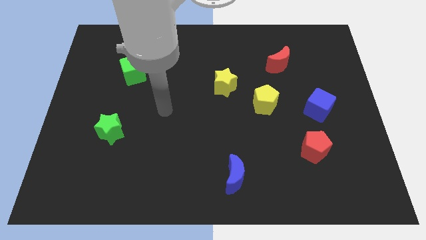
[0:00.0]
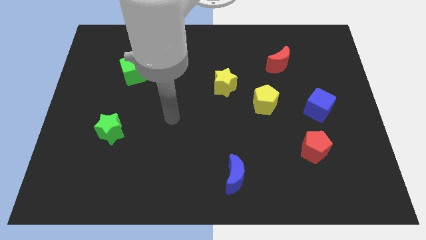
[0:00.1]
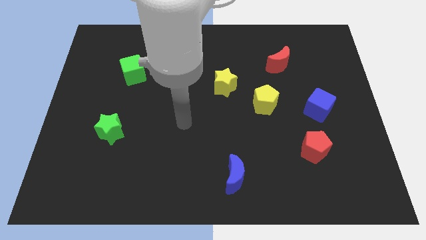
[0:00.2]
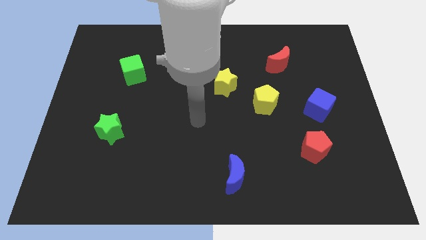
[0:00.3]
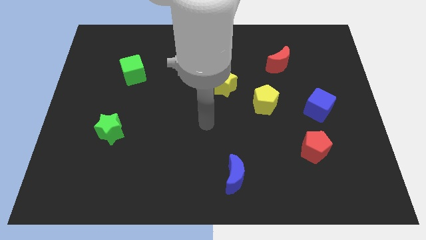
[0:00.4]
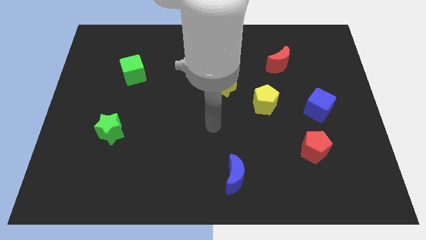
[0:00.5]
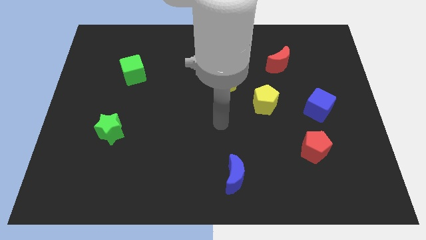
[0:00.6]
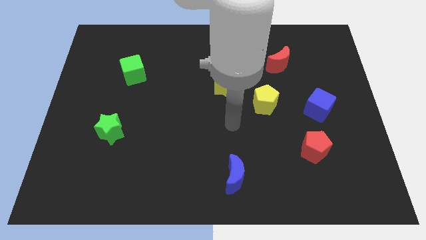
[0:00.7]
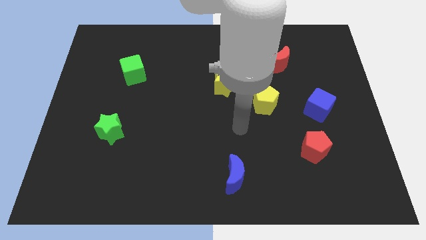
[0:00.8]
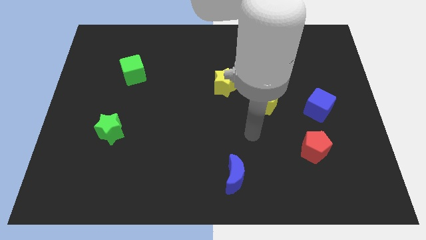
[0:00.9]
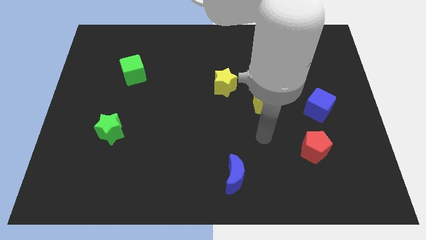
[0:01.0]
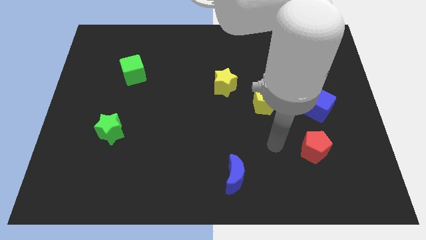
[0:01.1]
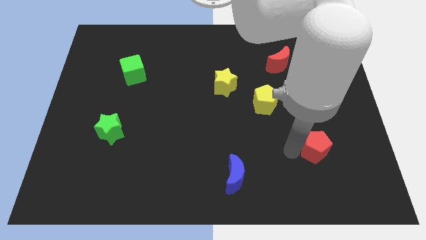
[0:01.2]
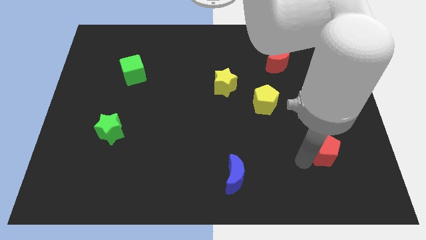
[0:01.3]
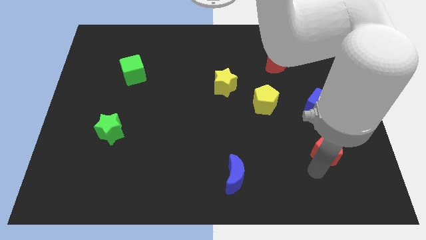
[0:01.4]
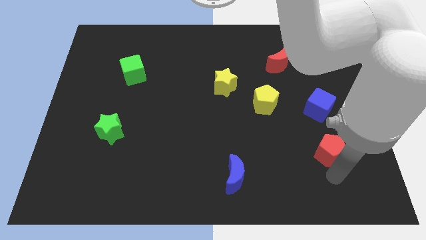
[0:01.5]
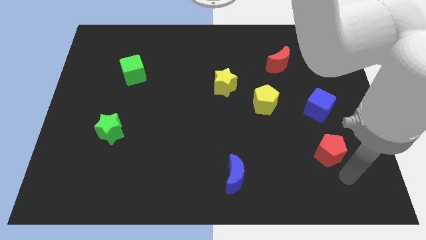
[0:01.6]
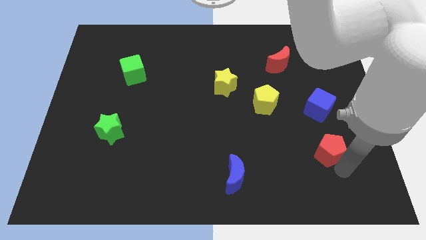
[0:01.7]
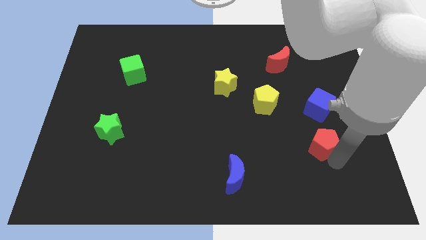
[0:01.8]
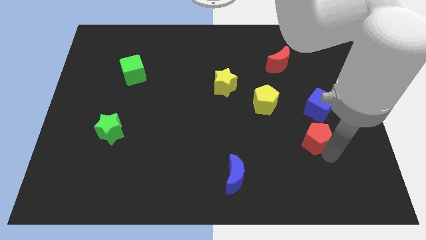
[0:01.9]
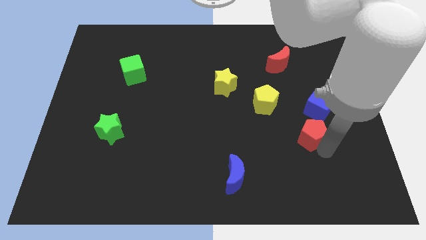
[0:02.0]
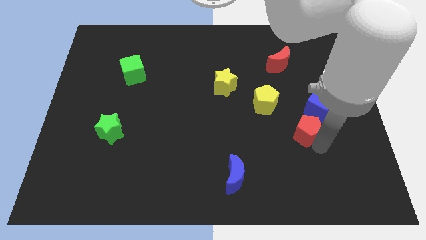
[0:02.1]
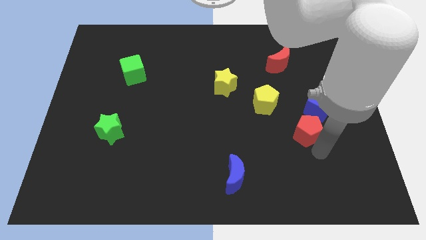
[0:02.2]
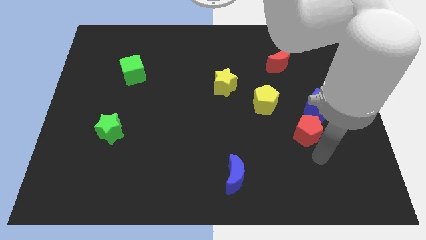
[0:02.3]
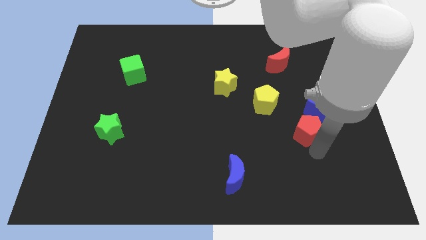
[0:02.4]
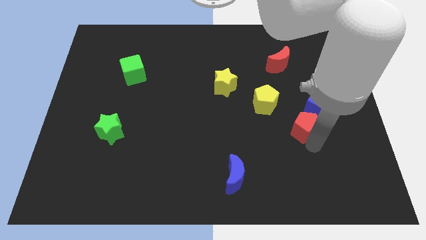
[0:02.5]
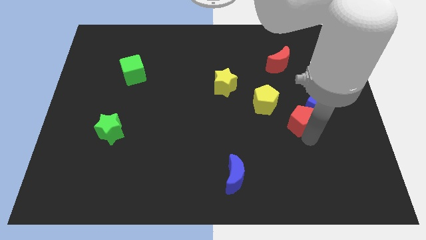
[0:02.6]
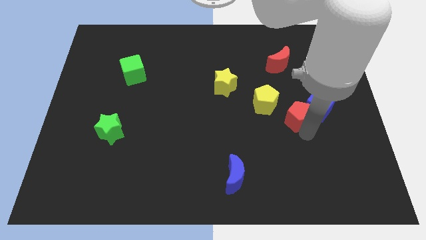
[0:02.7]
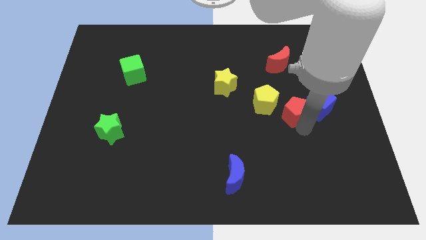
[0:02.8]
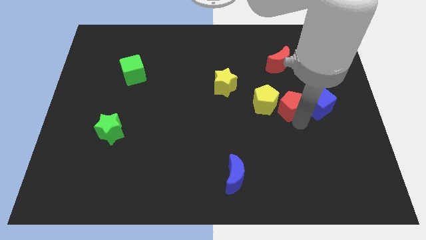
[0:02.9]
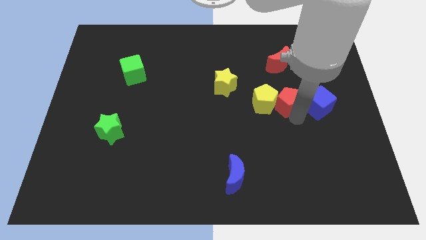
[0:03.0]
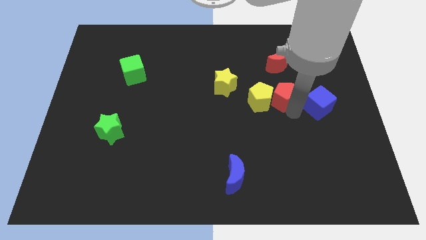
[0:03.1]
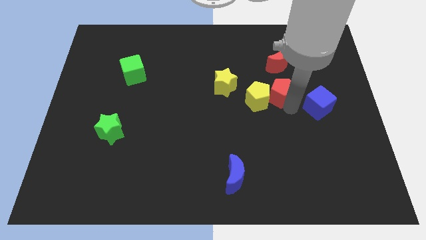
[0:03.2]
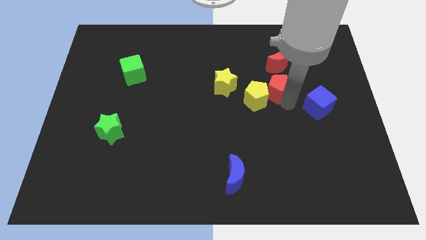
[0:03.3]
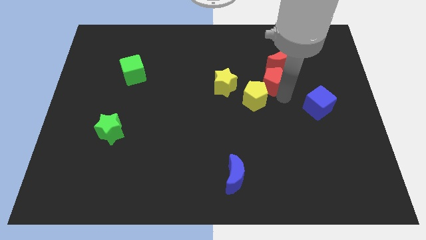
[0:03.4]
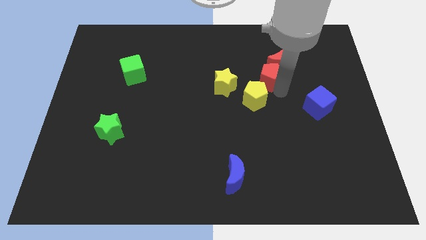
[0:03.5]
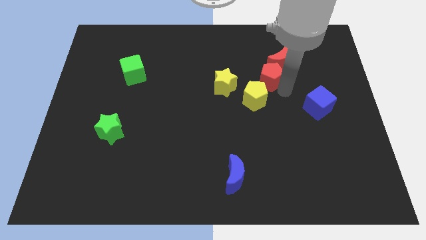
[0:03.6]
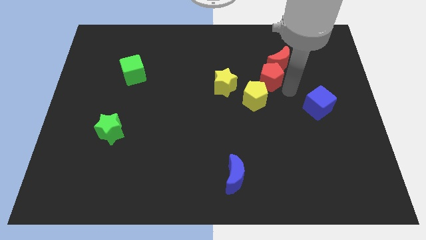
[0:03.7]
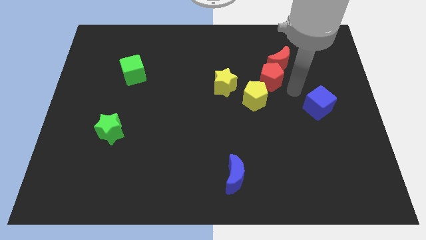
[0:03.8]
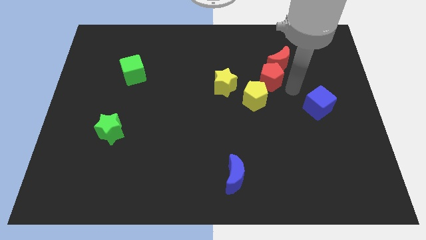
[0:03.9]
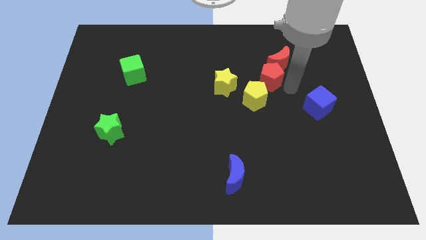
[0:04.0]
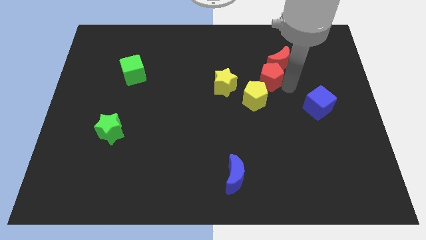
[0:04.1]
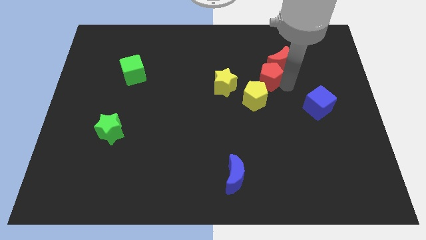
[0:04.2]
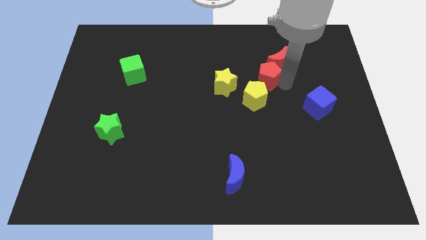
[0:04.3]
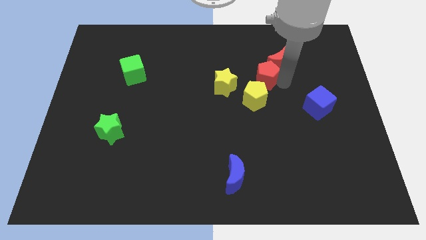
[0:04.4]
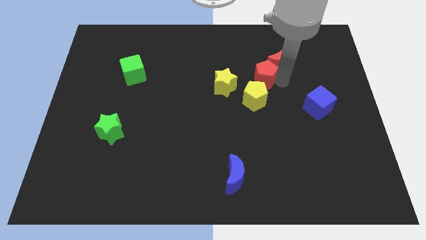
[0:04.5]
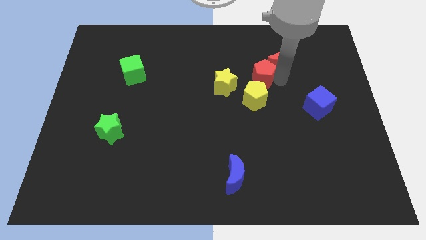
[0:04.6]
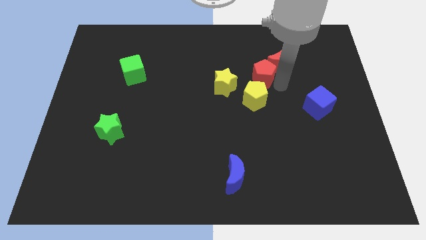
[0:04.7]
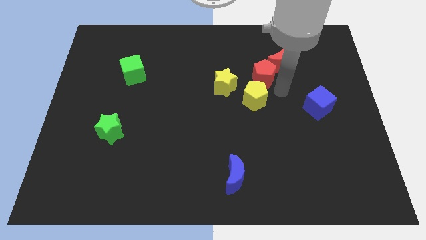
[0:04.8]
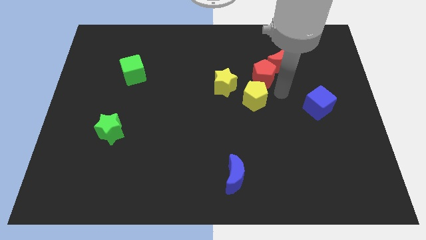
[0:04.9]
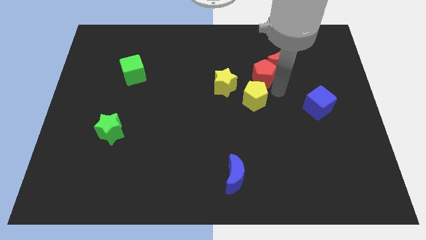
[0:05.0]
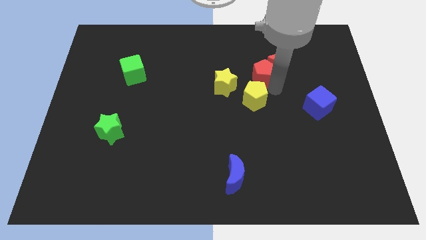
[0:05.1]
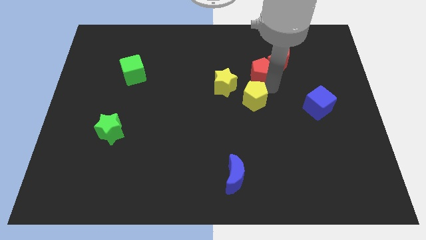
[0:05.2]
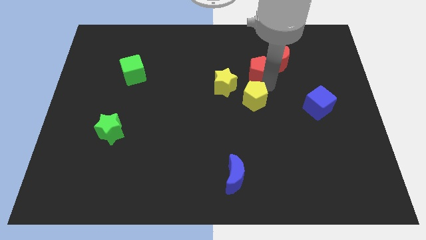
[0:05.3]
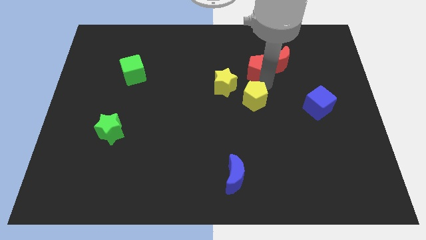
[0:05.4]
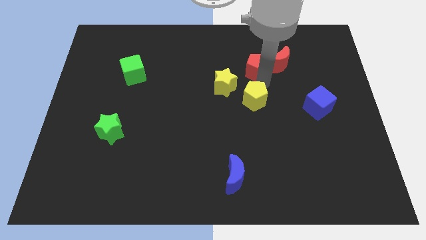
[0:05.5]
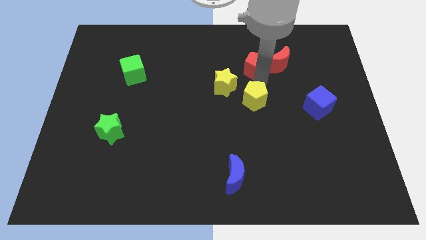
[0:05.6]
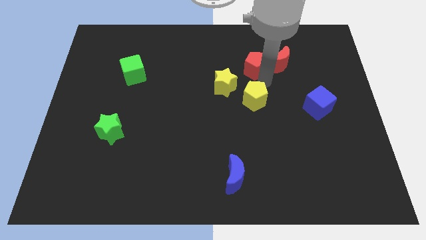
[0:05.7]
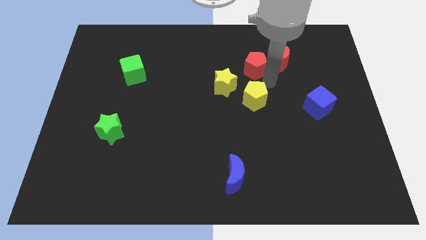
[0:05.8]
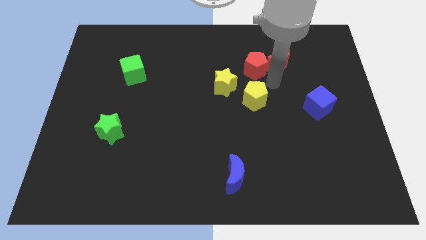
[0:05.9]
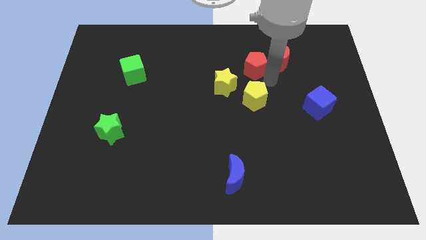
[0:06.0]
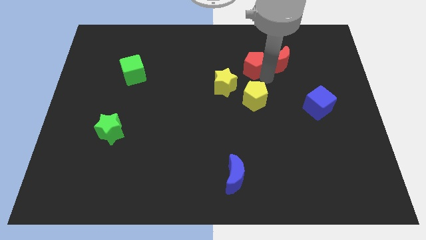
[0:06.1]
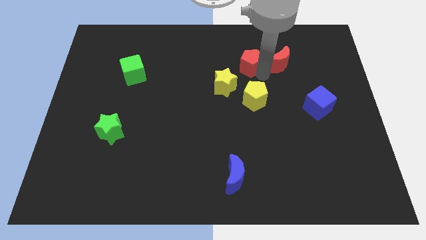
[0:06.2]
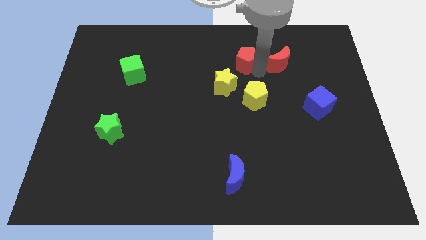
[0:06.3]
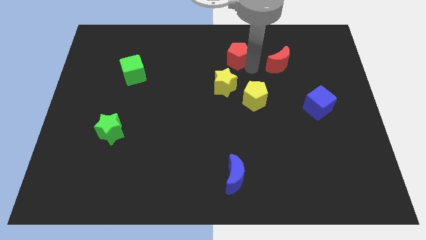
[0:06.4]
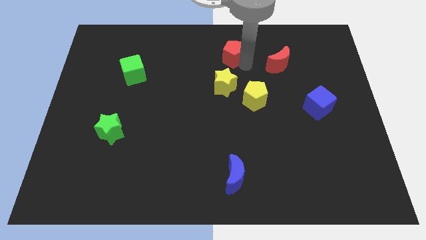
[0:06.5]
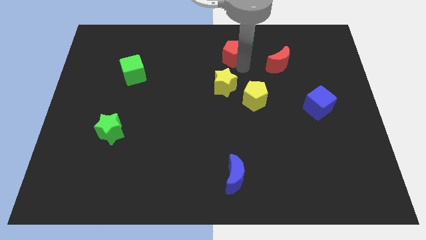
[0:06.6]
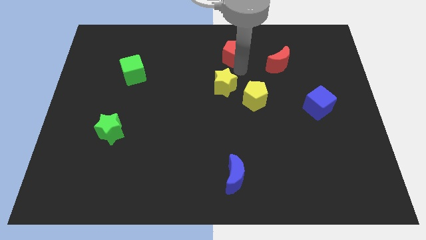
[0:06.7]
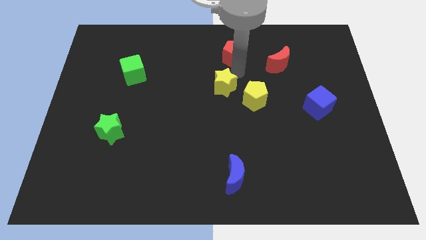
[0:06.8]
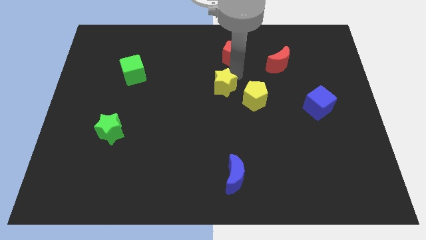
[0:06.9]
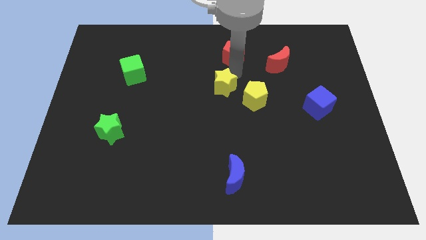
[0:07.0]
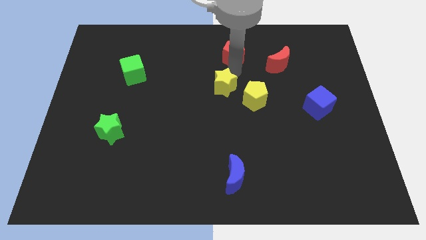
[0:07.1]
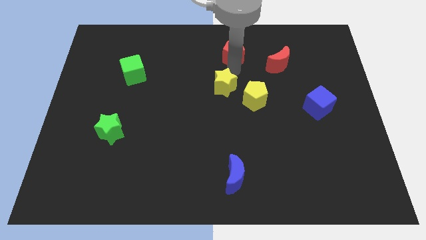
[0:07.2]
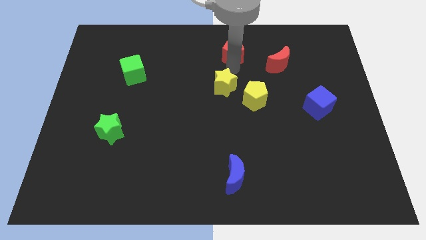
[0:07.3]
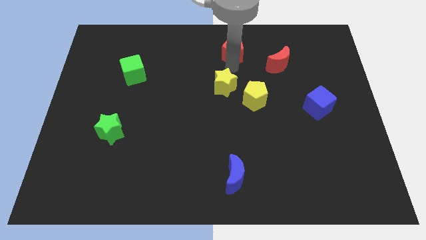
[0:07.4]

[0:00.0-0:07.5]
put the red pentagon to the top side
